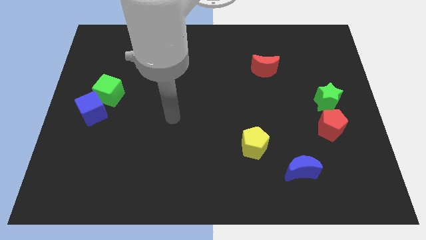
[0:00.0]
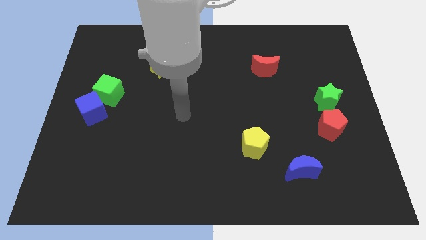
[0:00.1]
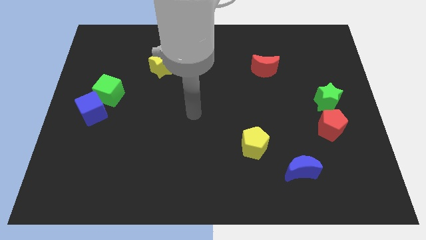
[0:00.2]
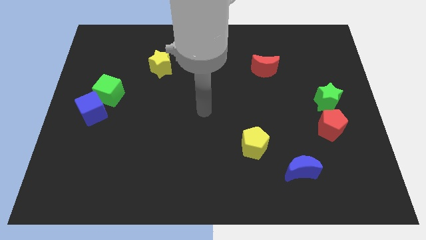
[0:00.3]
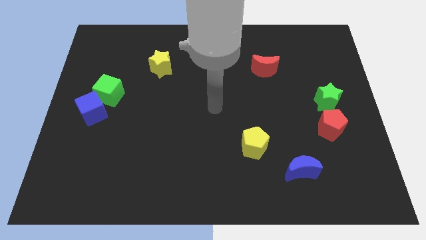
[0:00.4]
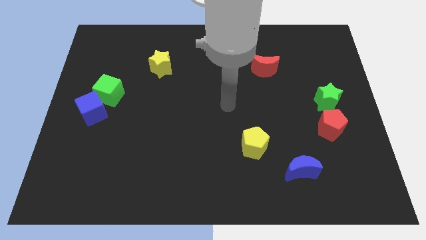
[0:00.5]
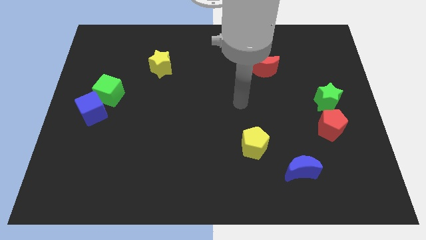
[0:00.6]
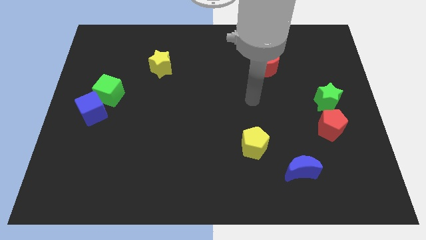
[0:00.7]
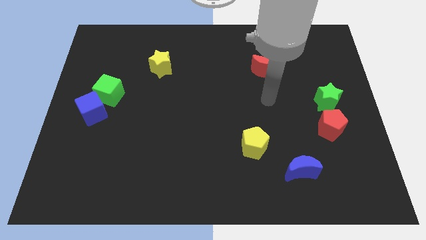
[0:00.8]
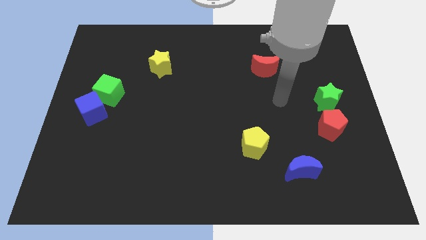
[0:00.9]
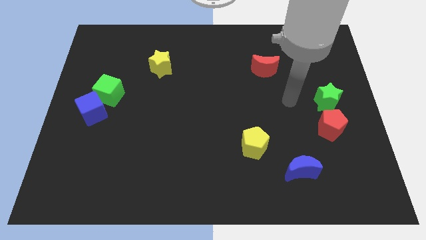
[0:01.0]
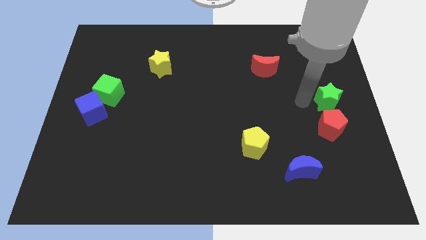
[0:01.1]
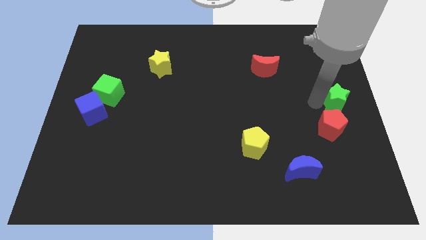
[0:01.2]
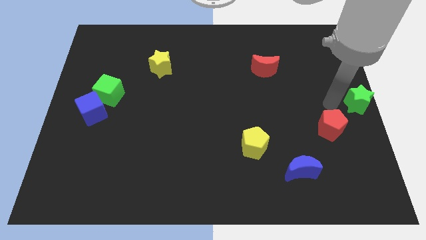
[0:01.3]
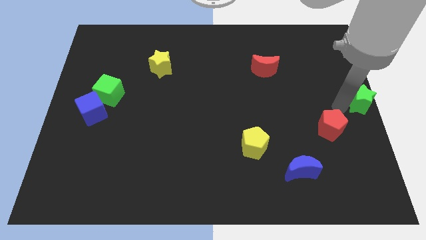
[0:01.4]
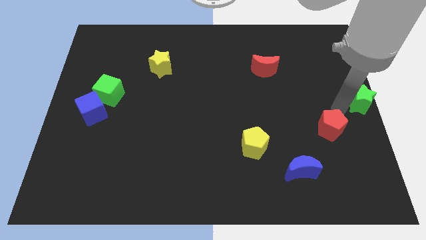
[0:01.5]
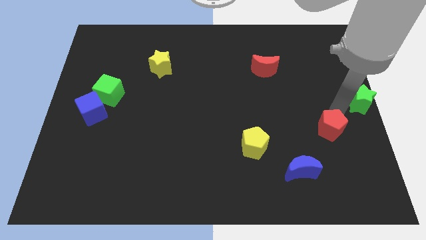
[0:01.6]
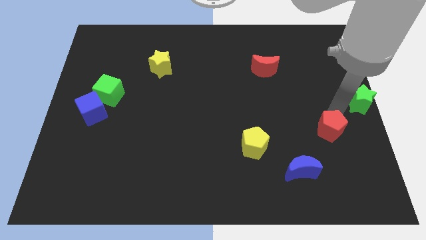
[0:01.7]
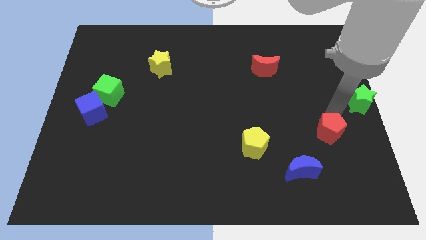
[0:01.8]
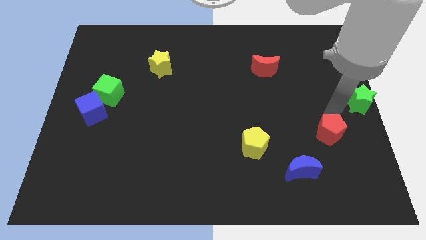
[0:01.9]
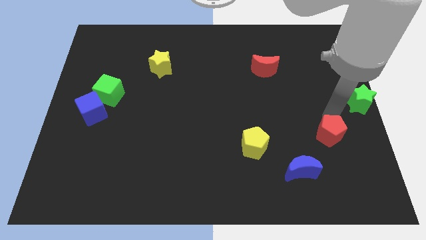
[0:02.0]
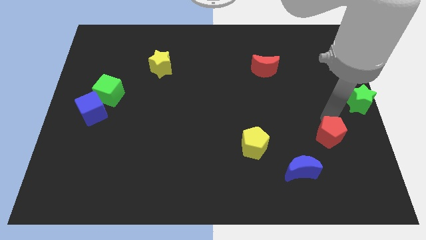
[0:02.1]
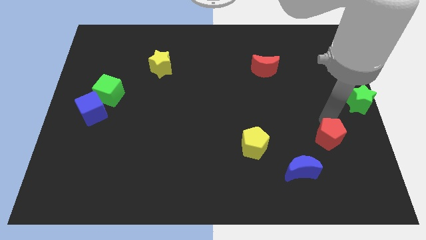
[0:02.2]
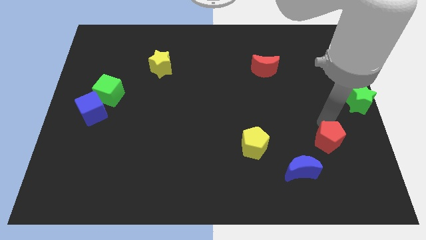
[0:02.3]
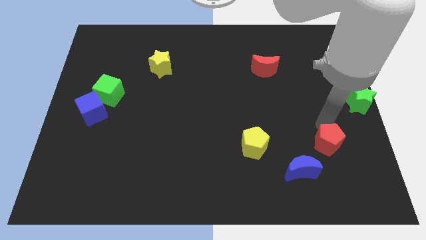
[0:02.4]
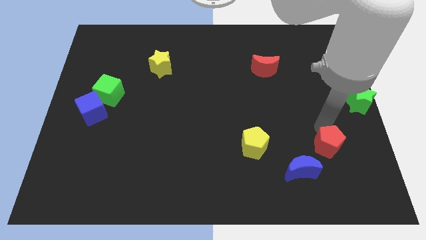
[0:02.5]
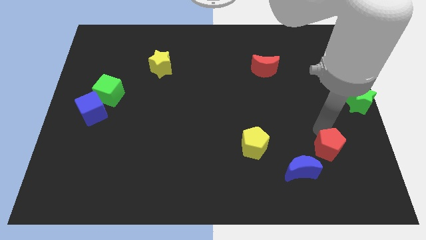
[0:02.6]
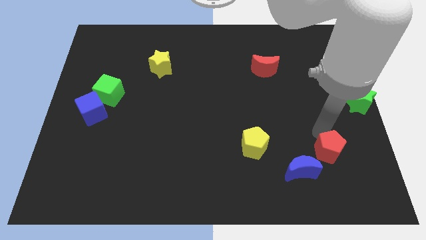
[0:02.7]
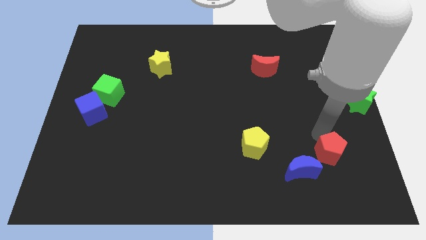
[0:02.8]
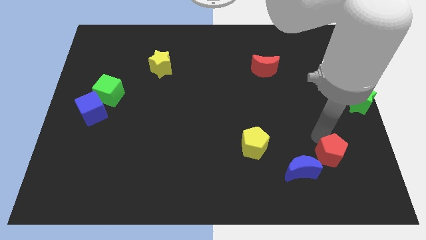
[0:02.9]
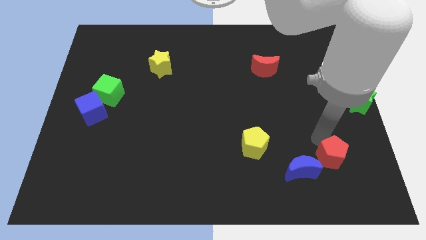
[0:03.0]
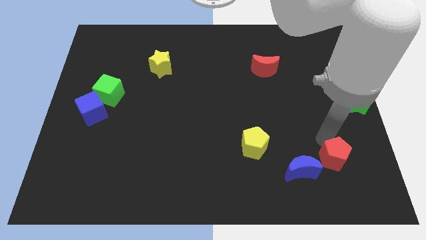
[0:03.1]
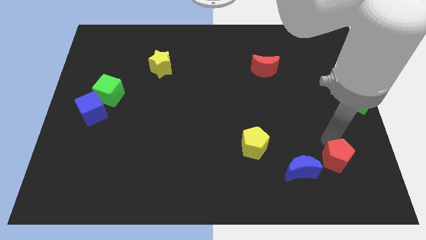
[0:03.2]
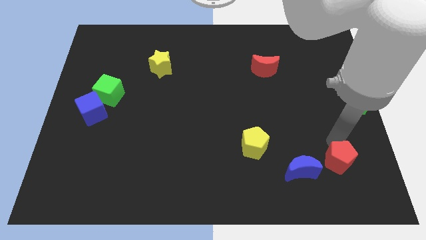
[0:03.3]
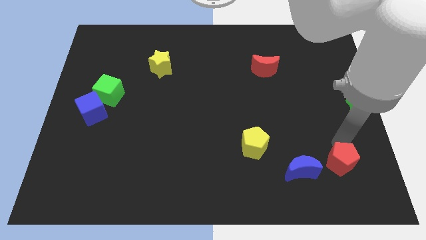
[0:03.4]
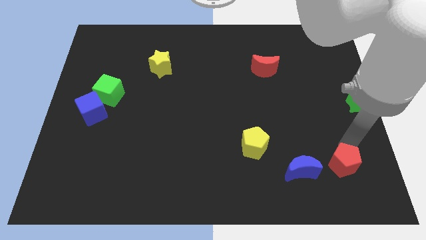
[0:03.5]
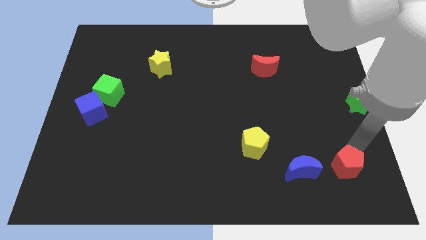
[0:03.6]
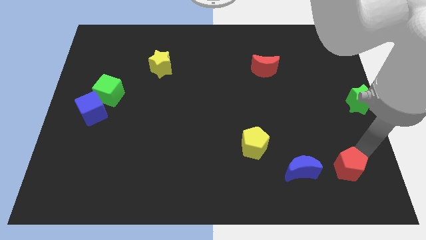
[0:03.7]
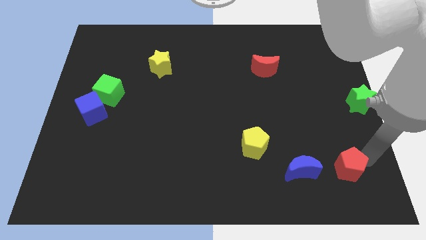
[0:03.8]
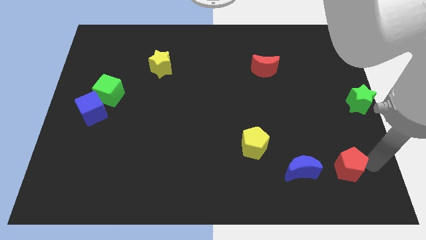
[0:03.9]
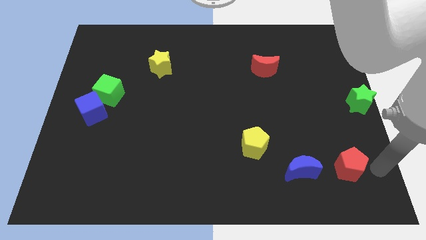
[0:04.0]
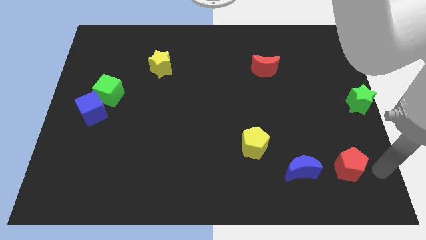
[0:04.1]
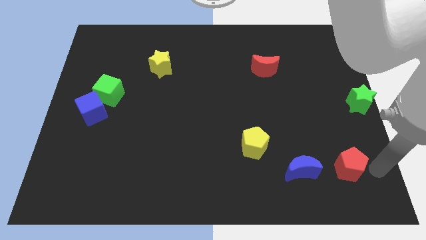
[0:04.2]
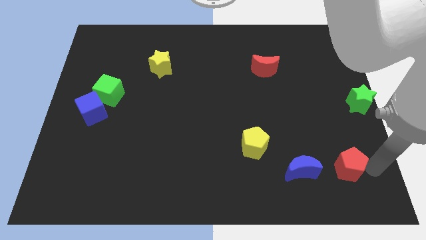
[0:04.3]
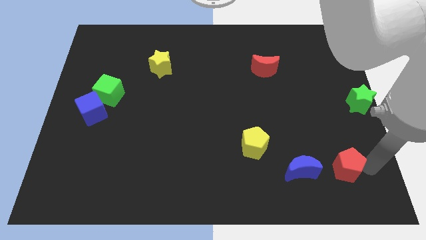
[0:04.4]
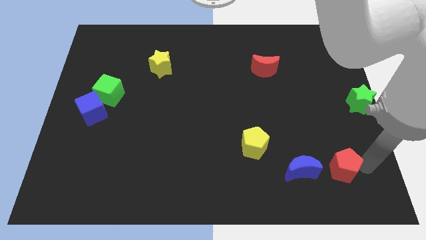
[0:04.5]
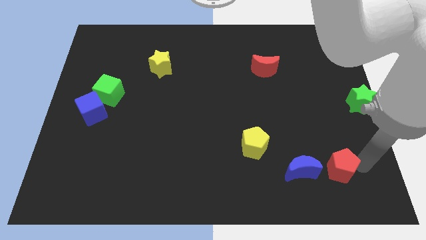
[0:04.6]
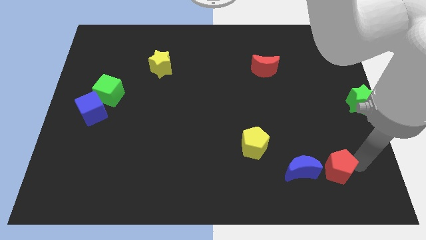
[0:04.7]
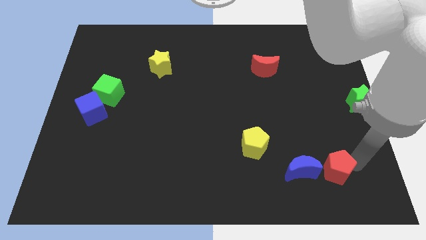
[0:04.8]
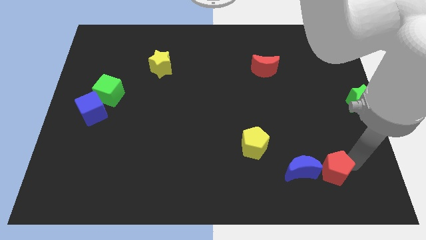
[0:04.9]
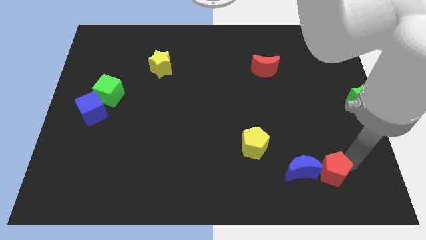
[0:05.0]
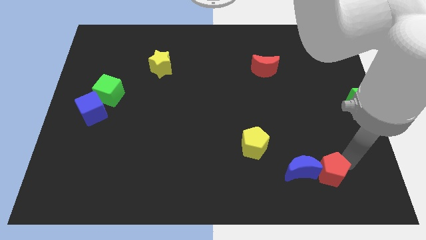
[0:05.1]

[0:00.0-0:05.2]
push the red pentagon towards the blue moon

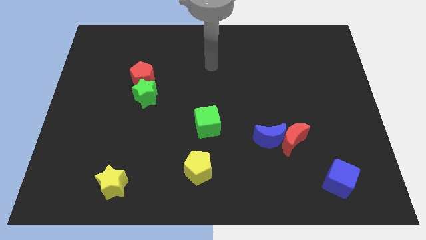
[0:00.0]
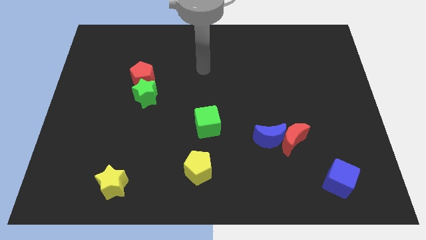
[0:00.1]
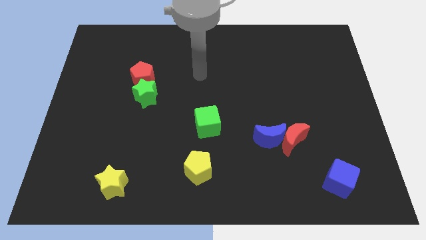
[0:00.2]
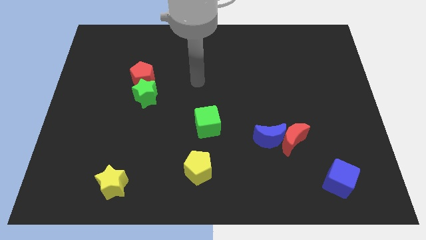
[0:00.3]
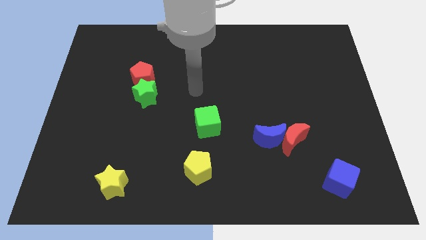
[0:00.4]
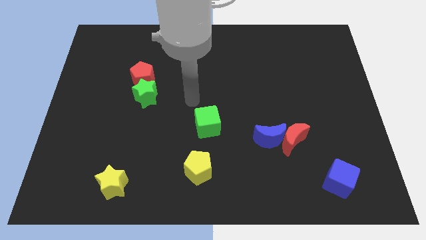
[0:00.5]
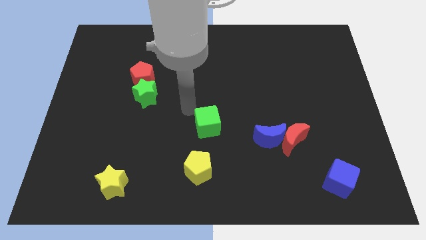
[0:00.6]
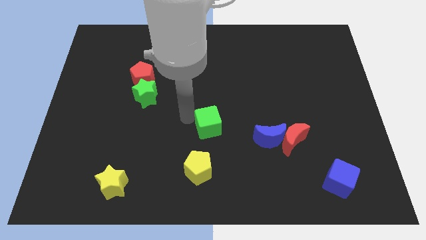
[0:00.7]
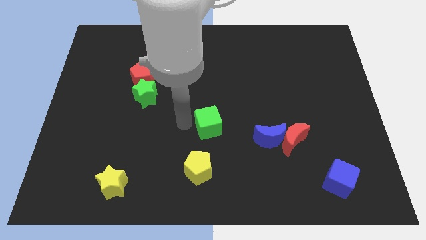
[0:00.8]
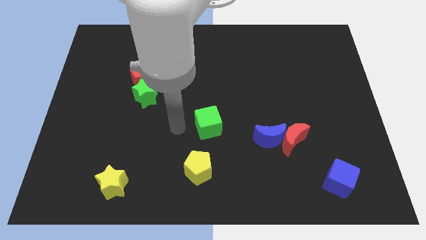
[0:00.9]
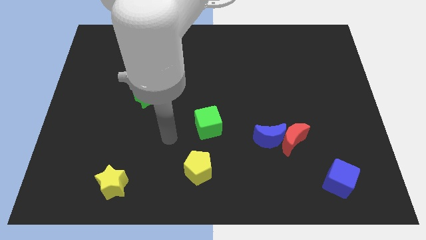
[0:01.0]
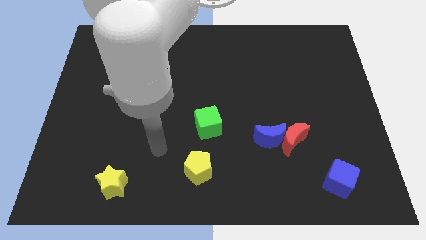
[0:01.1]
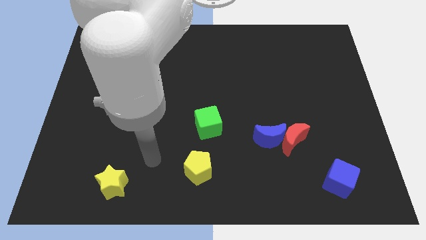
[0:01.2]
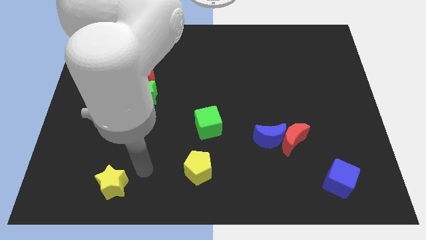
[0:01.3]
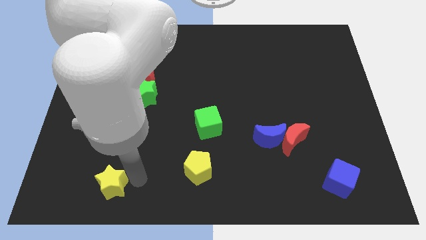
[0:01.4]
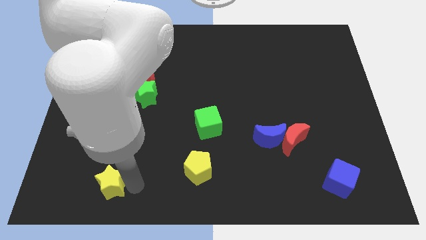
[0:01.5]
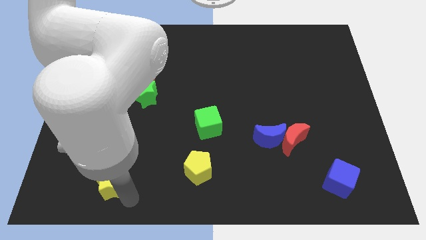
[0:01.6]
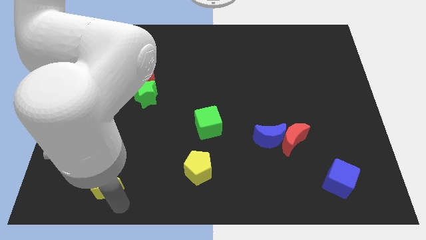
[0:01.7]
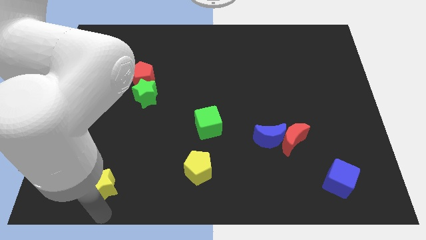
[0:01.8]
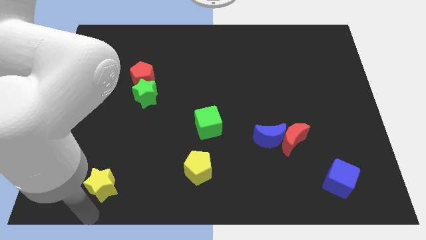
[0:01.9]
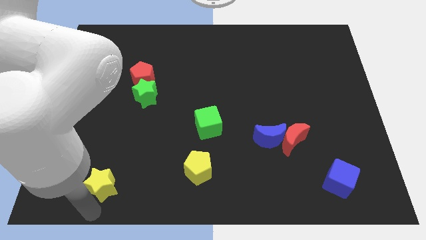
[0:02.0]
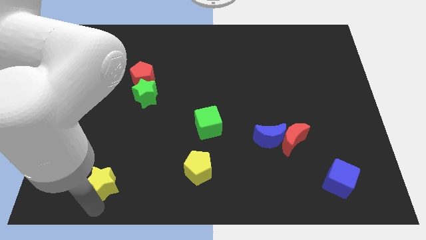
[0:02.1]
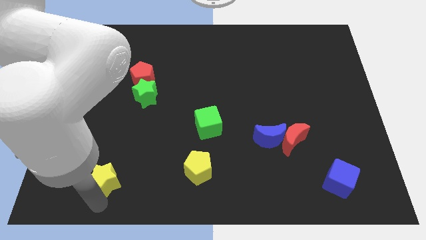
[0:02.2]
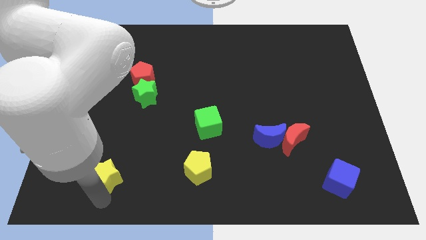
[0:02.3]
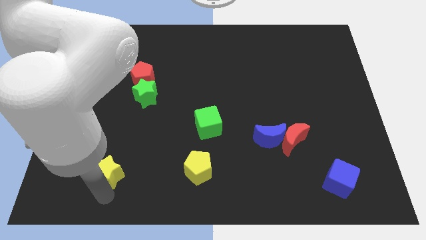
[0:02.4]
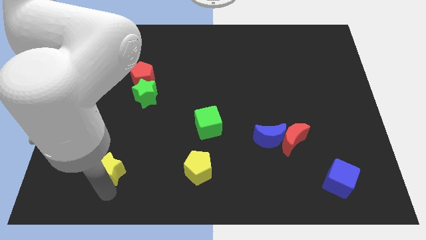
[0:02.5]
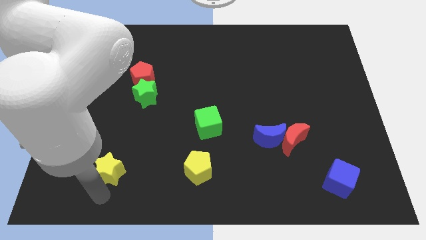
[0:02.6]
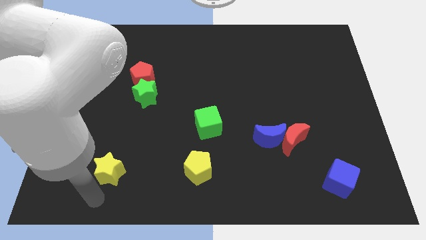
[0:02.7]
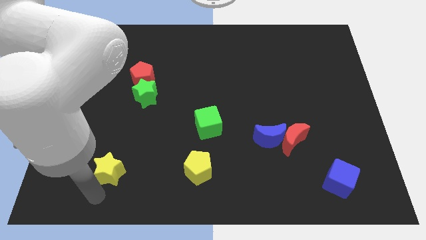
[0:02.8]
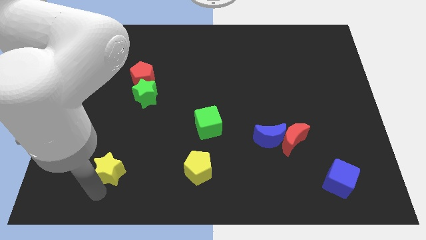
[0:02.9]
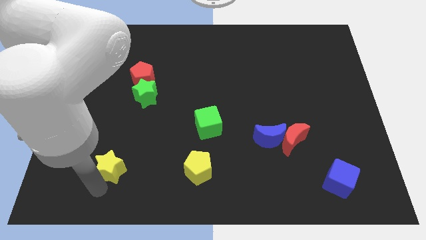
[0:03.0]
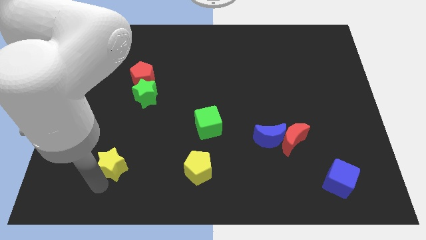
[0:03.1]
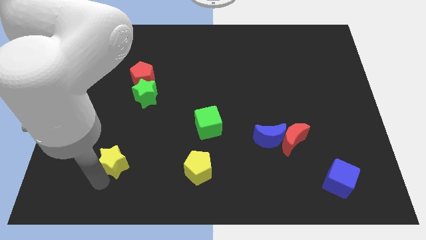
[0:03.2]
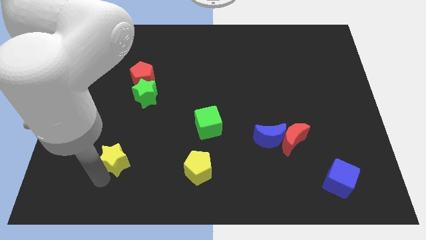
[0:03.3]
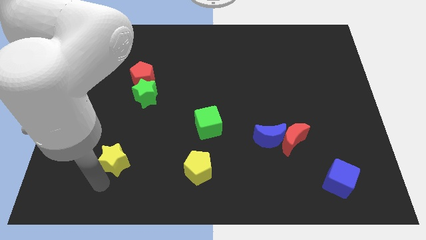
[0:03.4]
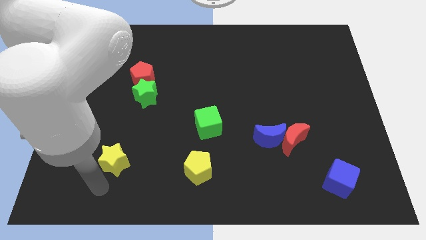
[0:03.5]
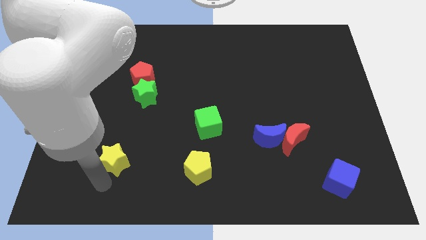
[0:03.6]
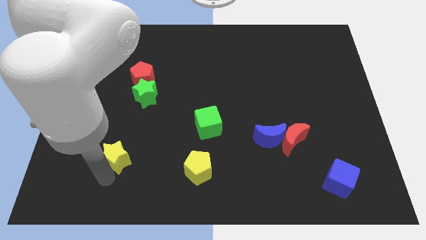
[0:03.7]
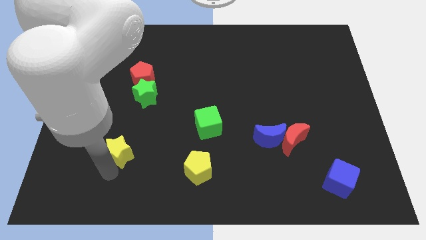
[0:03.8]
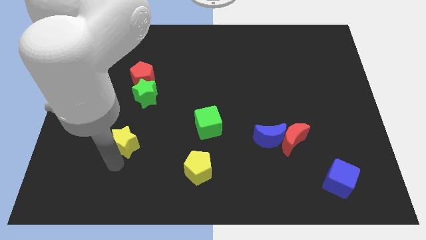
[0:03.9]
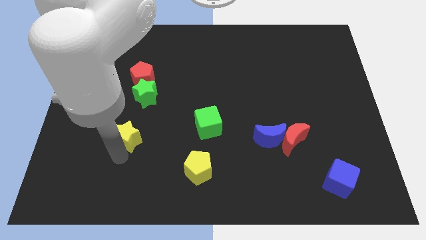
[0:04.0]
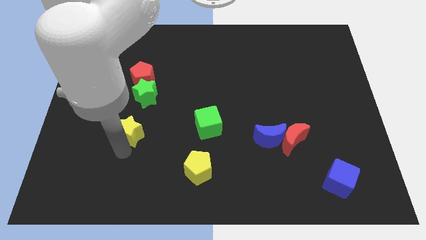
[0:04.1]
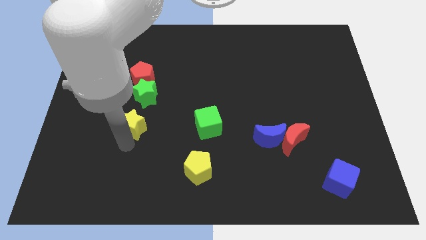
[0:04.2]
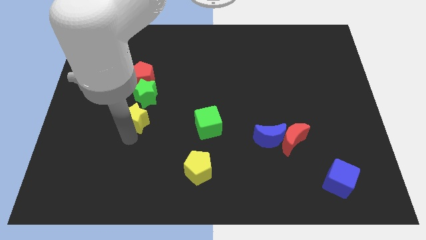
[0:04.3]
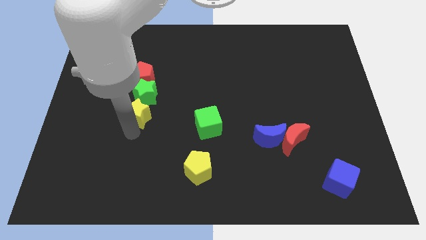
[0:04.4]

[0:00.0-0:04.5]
move the yellow star towards the green star
